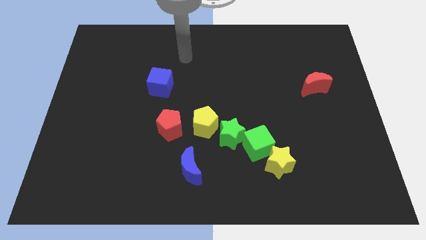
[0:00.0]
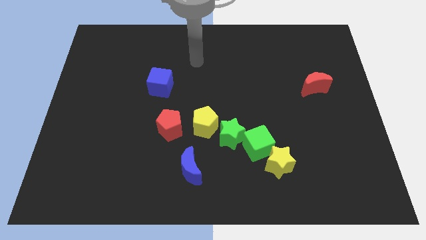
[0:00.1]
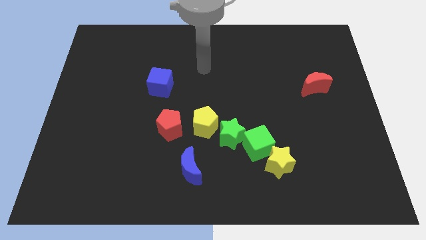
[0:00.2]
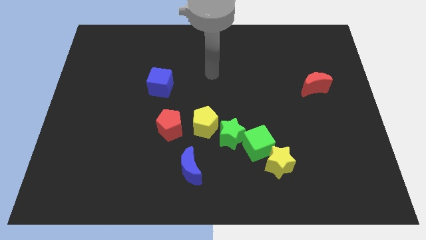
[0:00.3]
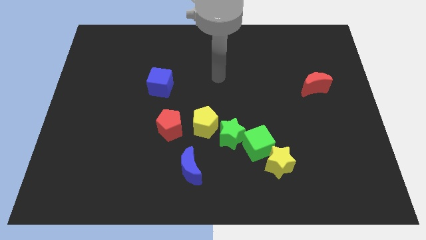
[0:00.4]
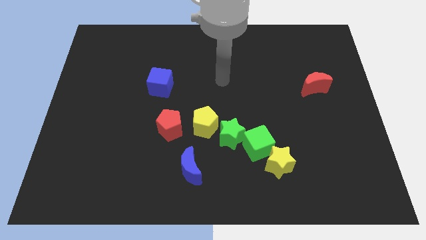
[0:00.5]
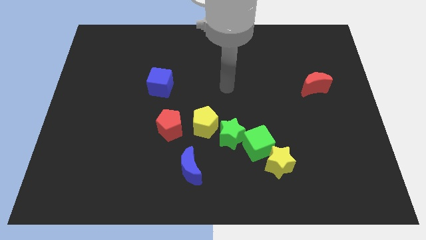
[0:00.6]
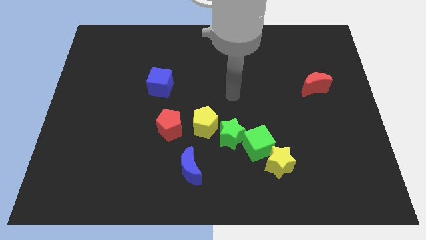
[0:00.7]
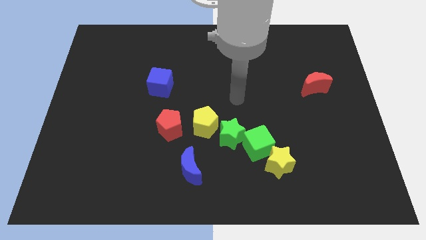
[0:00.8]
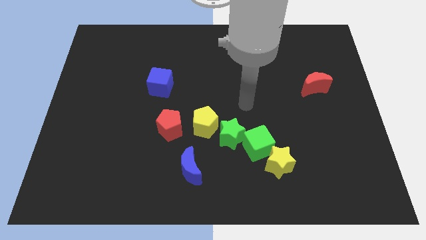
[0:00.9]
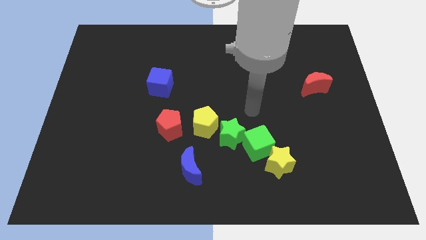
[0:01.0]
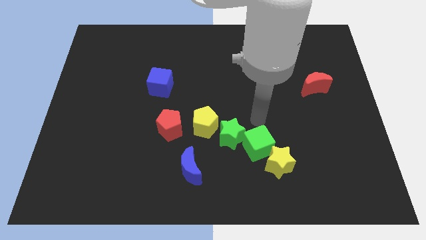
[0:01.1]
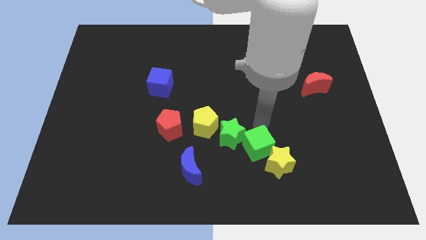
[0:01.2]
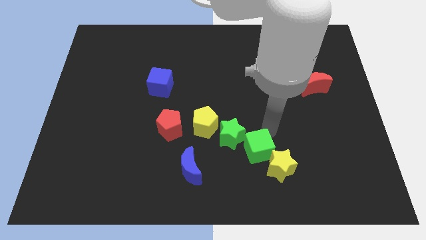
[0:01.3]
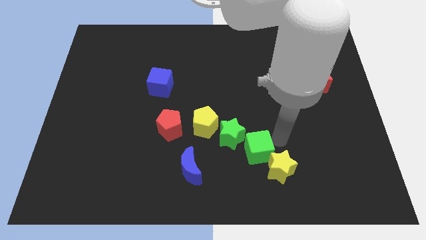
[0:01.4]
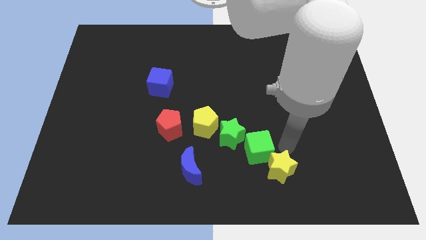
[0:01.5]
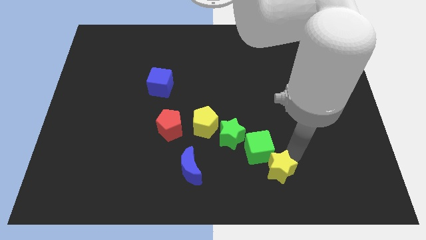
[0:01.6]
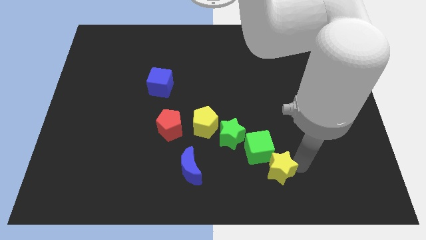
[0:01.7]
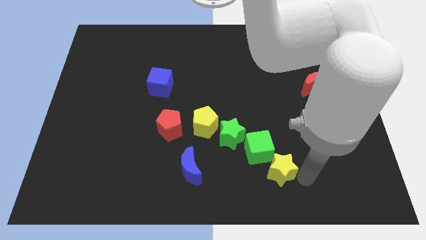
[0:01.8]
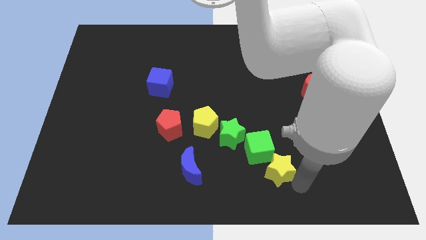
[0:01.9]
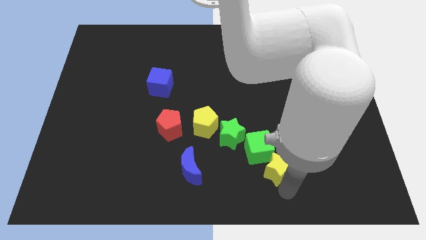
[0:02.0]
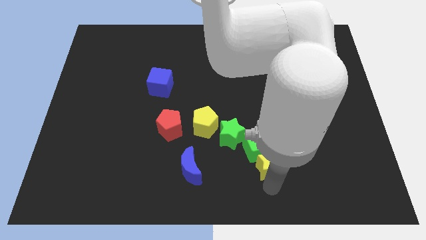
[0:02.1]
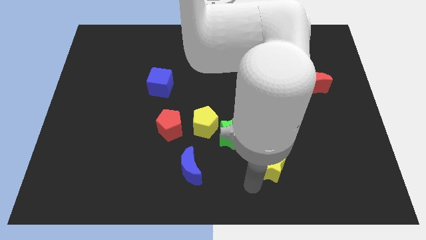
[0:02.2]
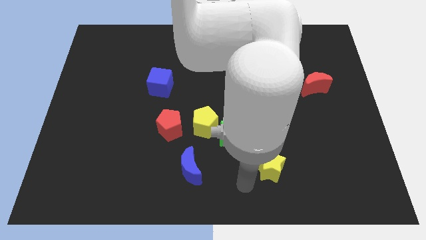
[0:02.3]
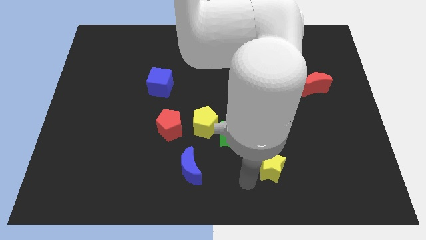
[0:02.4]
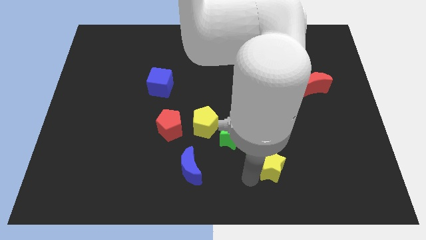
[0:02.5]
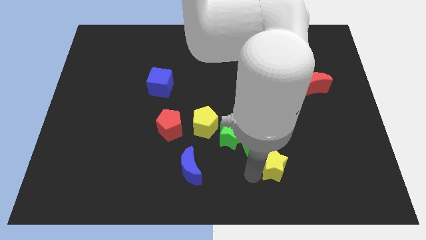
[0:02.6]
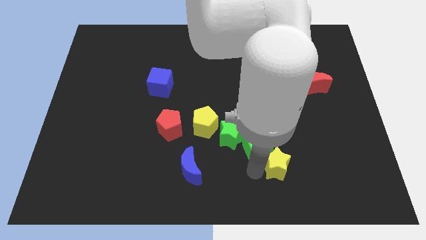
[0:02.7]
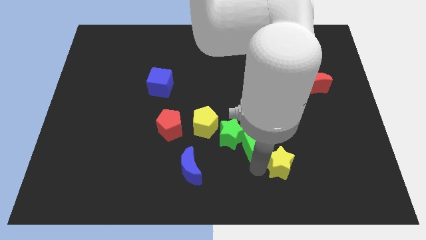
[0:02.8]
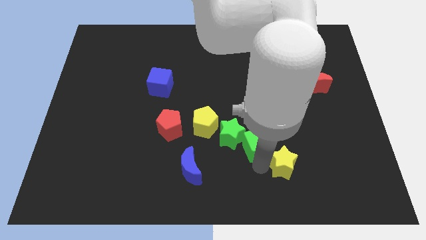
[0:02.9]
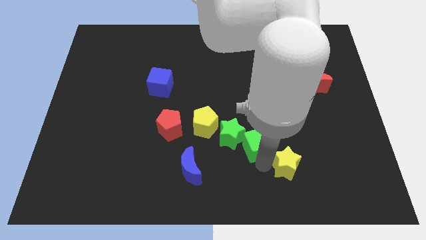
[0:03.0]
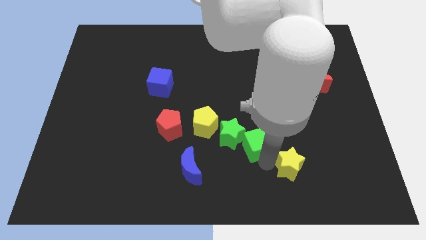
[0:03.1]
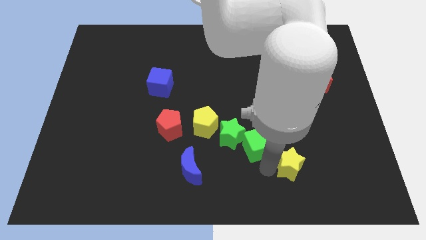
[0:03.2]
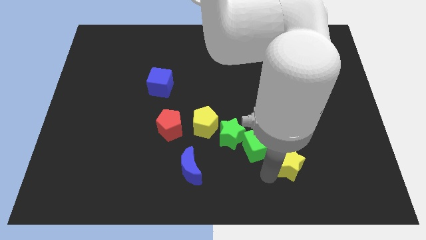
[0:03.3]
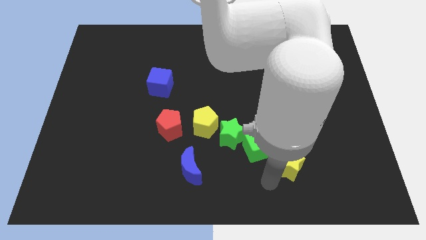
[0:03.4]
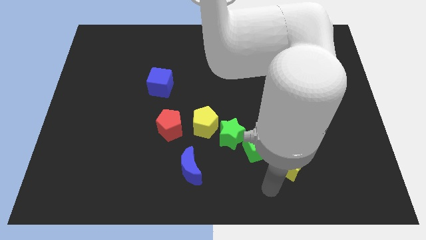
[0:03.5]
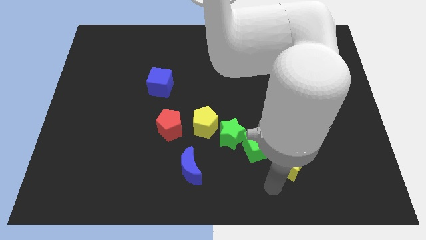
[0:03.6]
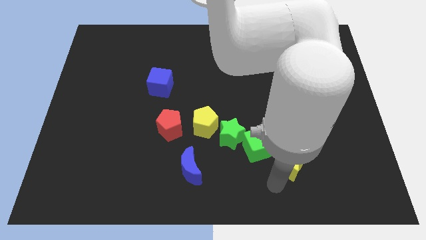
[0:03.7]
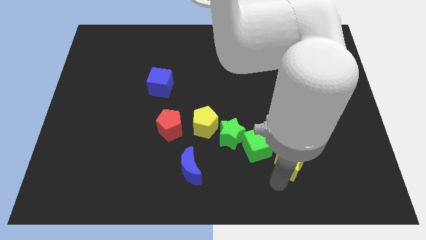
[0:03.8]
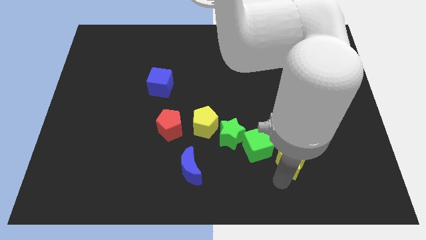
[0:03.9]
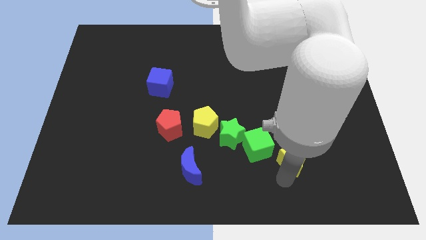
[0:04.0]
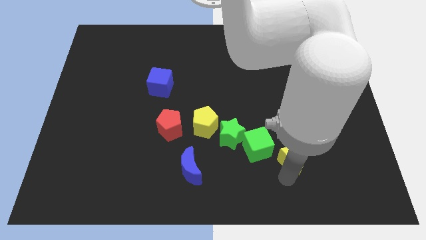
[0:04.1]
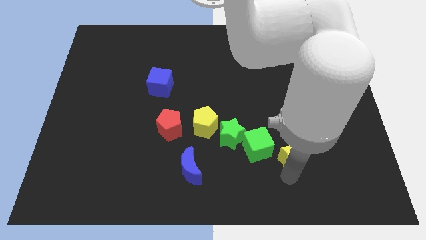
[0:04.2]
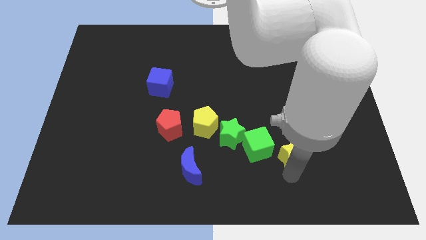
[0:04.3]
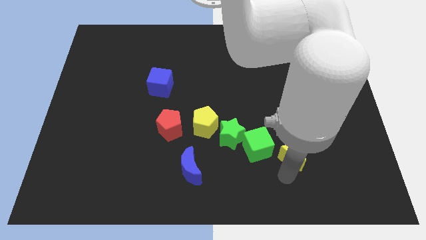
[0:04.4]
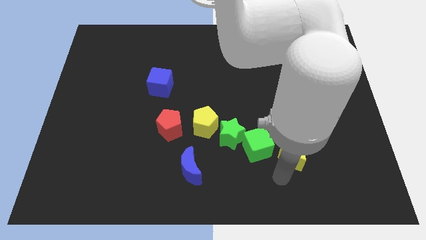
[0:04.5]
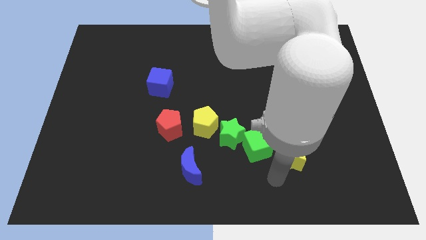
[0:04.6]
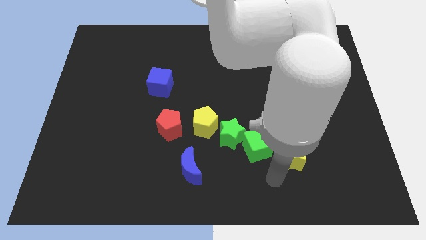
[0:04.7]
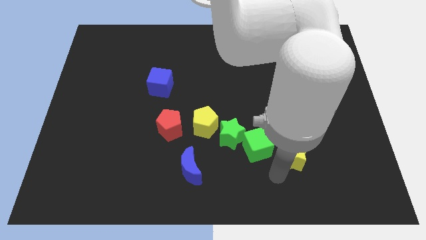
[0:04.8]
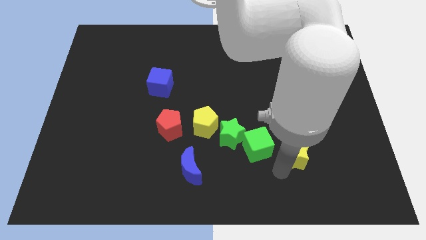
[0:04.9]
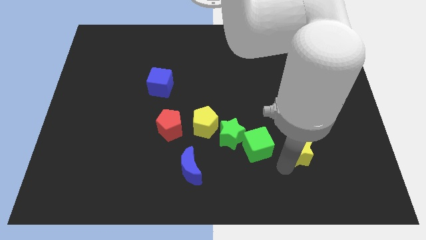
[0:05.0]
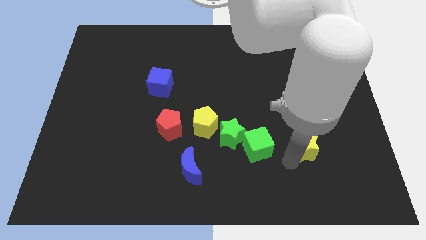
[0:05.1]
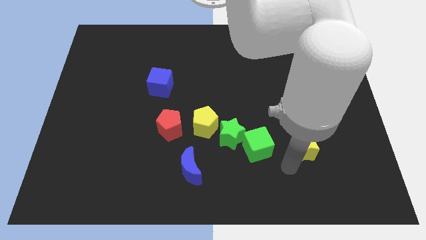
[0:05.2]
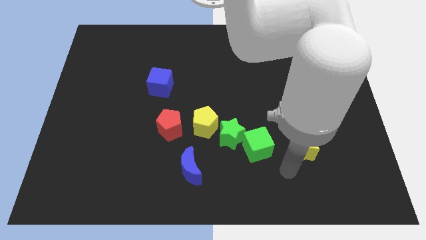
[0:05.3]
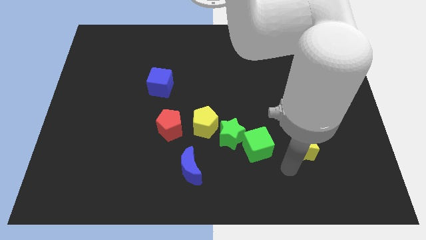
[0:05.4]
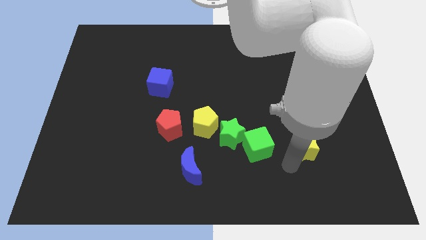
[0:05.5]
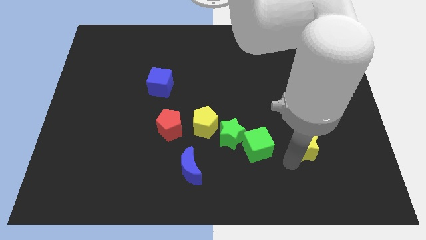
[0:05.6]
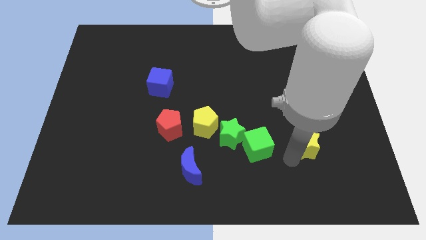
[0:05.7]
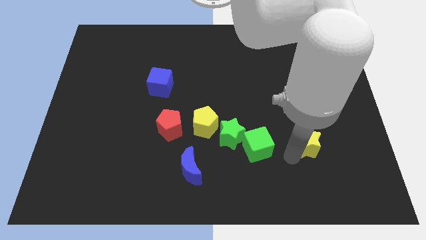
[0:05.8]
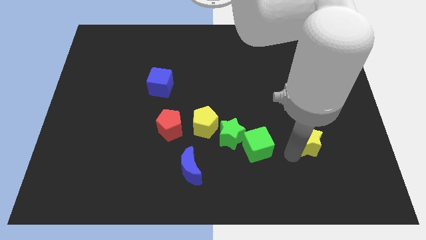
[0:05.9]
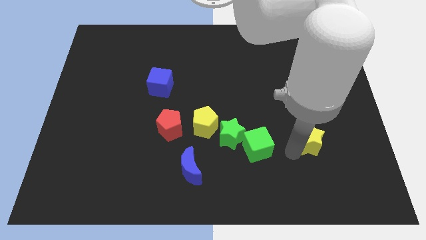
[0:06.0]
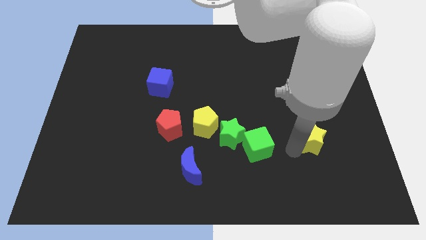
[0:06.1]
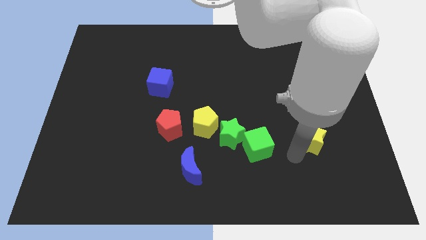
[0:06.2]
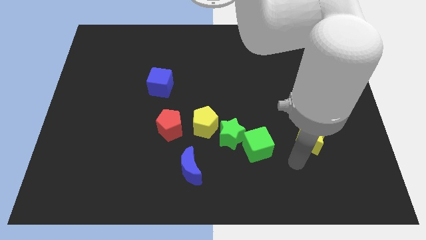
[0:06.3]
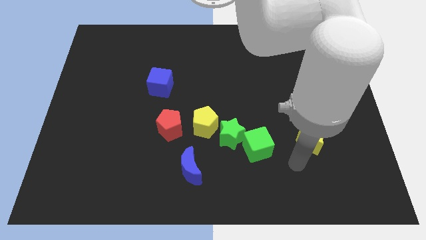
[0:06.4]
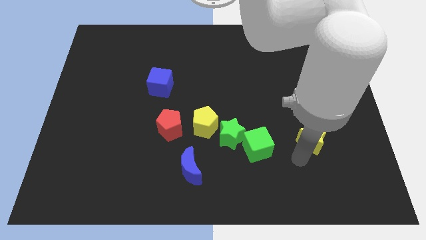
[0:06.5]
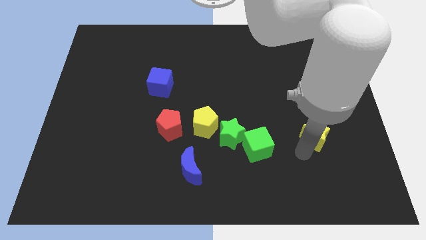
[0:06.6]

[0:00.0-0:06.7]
slide the yellow star to the bottom of the red moon
